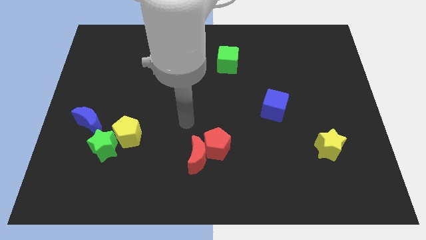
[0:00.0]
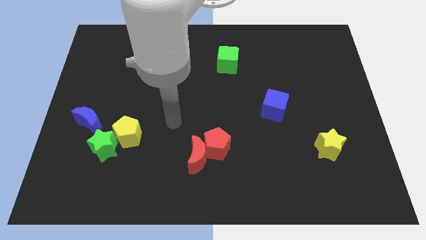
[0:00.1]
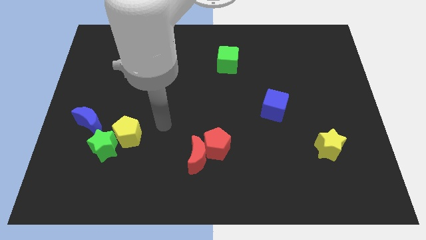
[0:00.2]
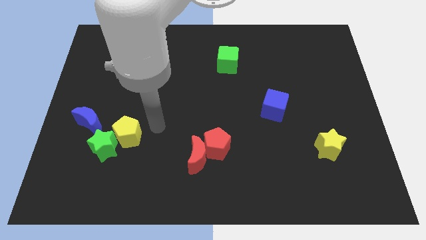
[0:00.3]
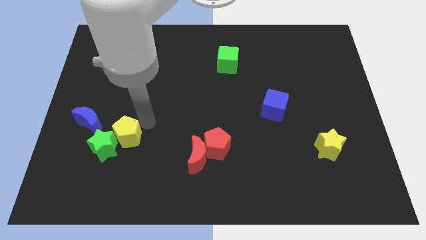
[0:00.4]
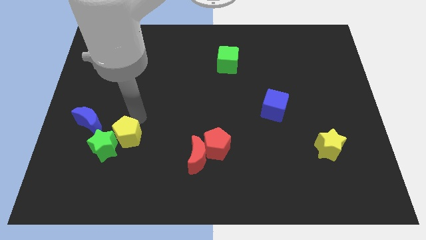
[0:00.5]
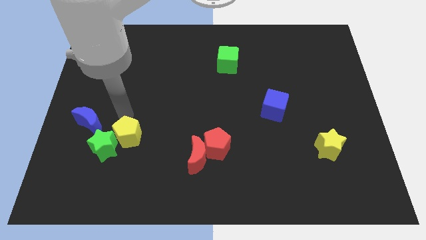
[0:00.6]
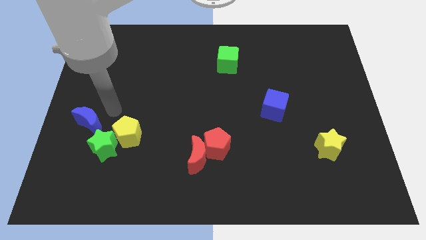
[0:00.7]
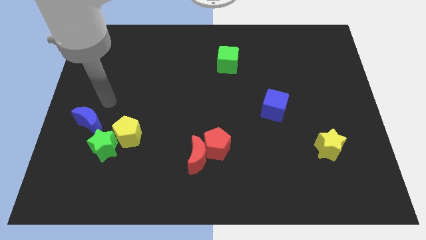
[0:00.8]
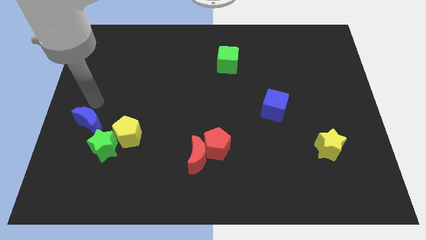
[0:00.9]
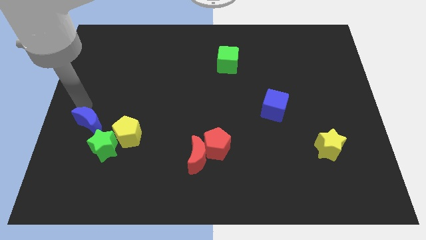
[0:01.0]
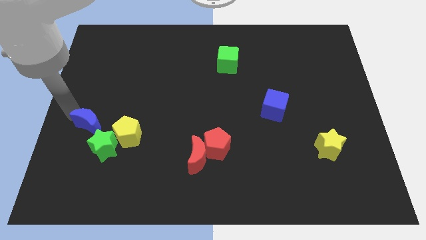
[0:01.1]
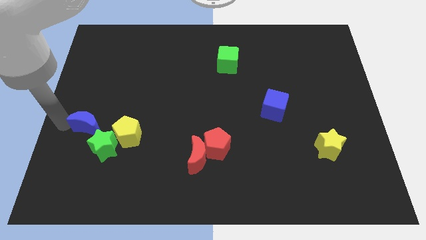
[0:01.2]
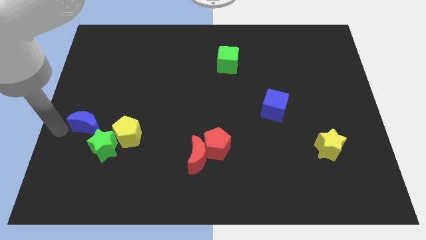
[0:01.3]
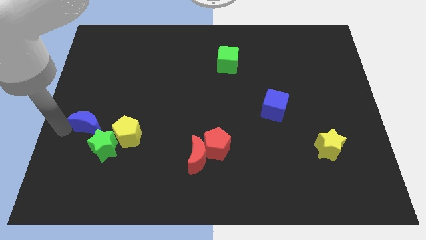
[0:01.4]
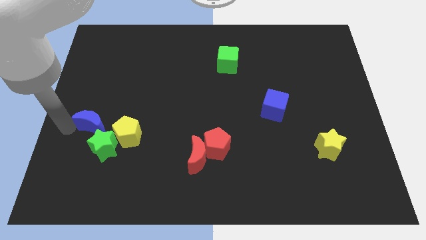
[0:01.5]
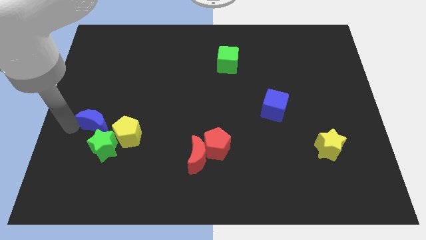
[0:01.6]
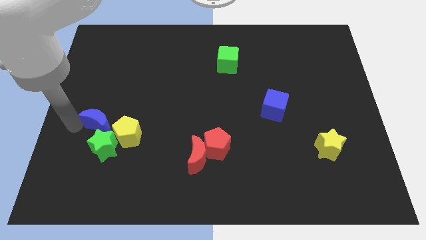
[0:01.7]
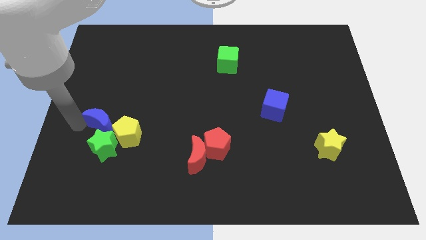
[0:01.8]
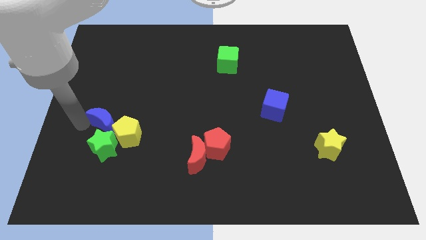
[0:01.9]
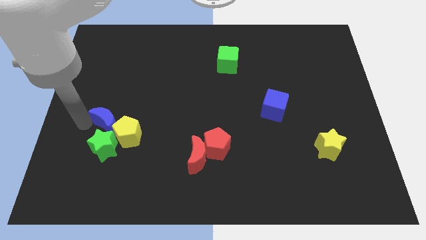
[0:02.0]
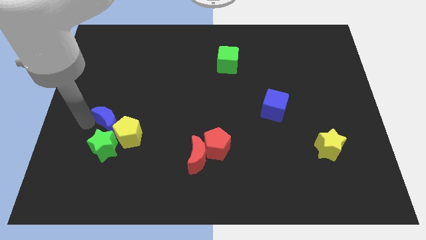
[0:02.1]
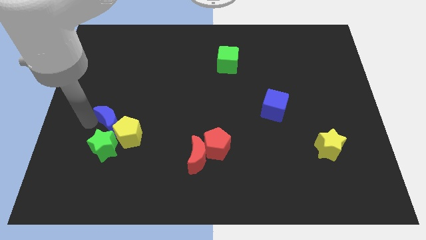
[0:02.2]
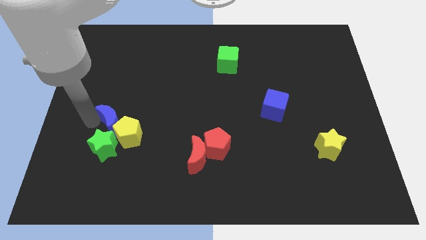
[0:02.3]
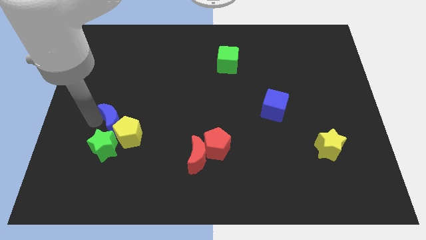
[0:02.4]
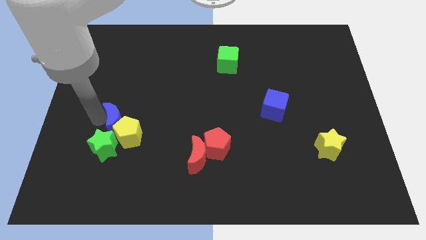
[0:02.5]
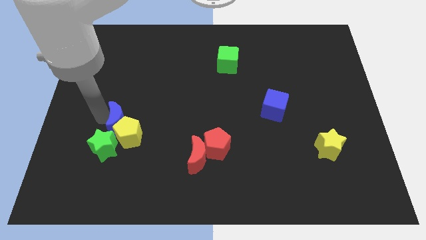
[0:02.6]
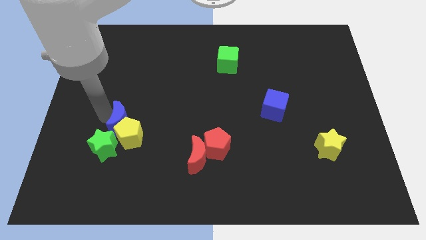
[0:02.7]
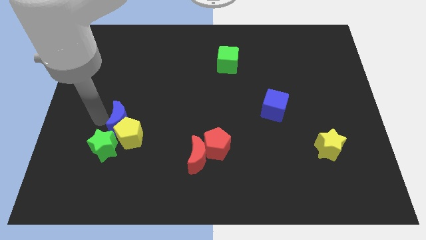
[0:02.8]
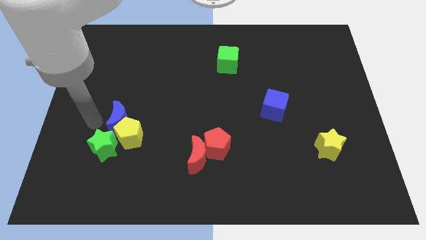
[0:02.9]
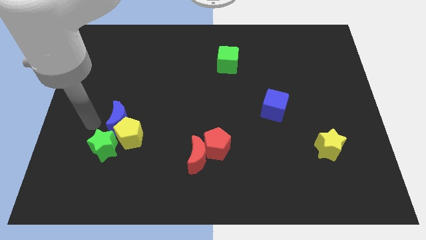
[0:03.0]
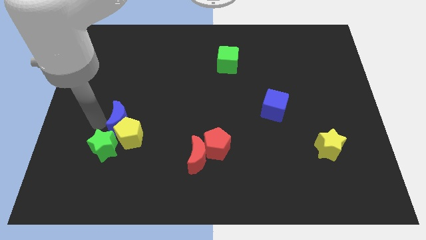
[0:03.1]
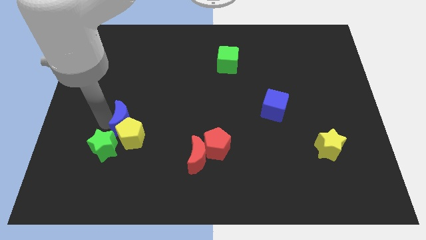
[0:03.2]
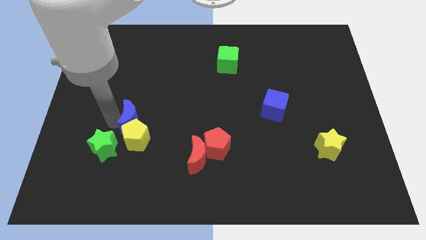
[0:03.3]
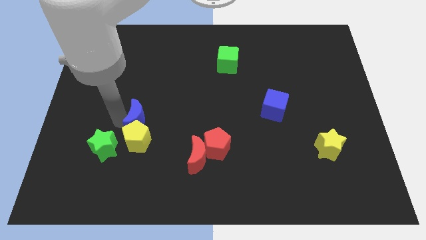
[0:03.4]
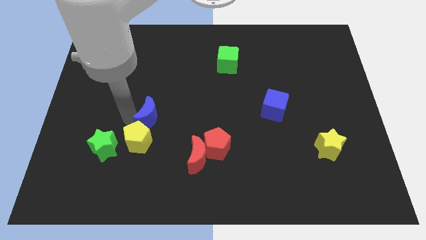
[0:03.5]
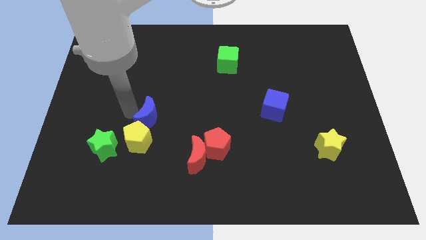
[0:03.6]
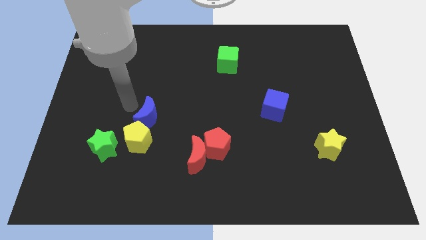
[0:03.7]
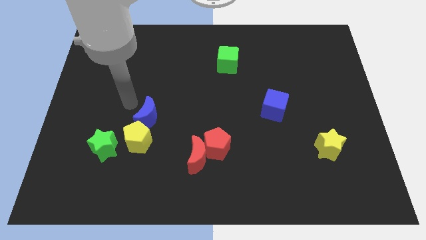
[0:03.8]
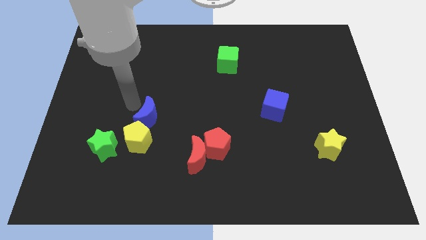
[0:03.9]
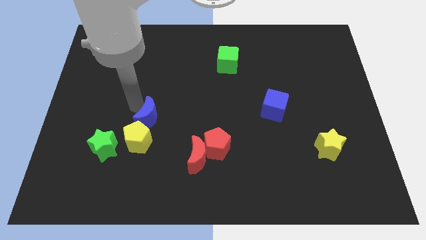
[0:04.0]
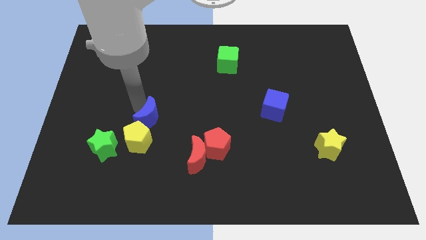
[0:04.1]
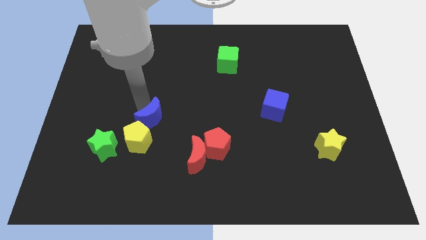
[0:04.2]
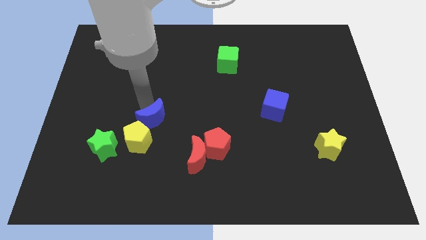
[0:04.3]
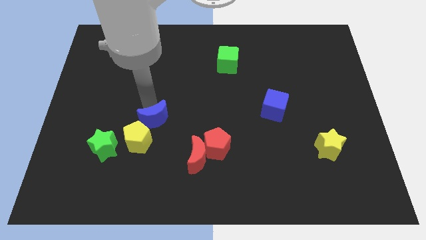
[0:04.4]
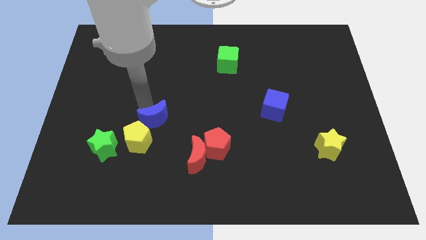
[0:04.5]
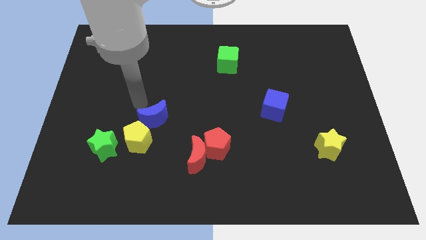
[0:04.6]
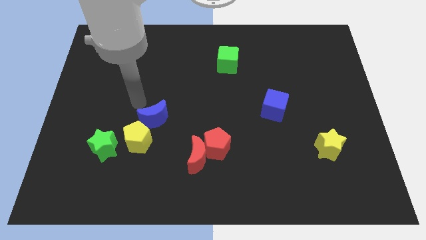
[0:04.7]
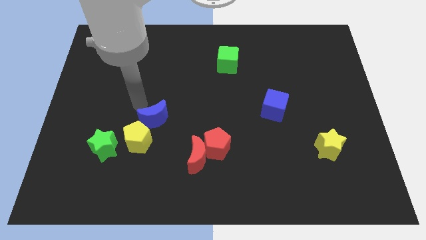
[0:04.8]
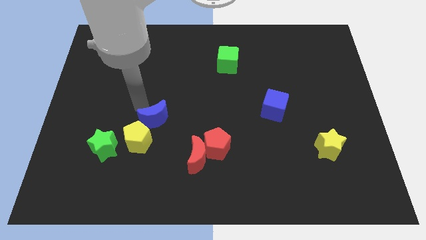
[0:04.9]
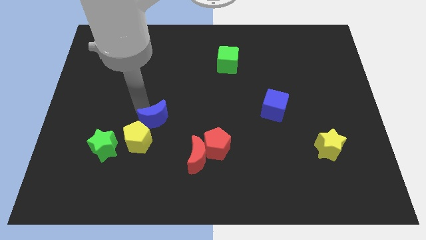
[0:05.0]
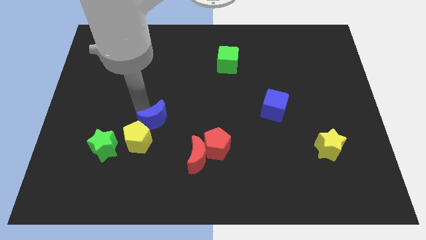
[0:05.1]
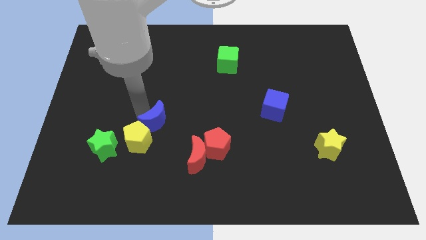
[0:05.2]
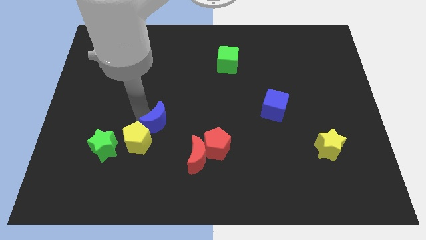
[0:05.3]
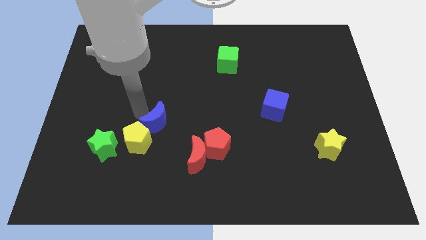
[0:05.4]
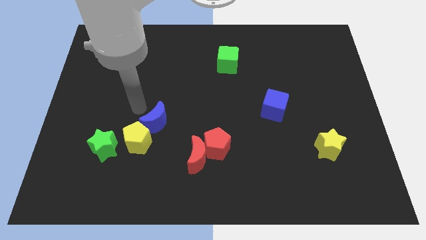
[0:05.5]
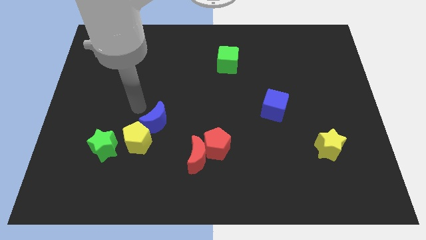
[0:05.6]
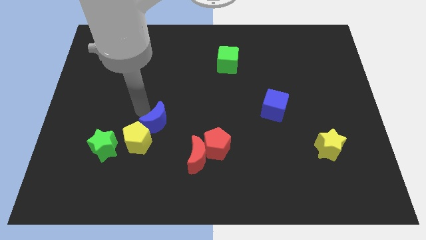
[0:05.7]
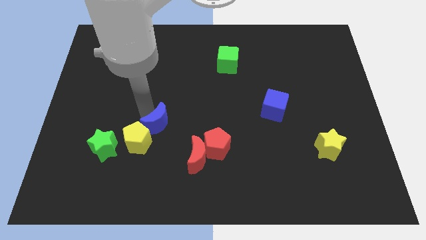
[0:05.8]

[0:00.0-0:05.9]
put the blue moon to the top left side of the red moon

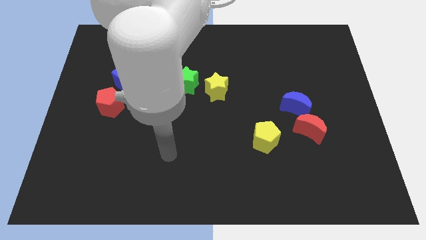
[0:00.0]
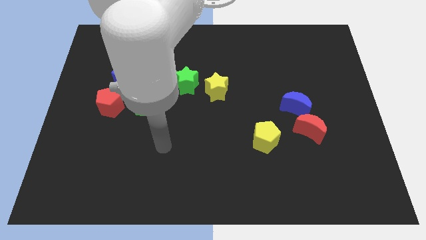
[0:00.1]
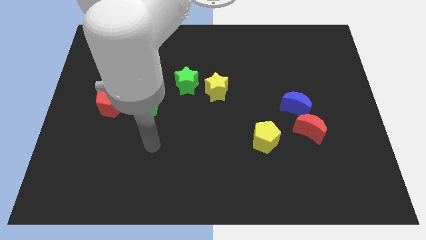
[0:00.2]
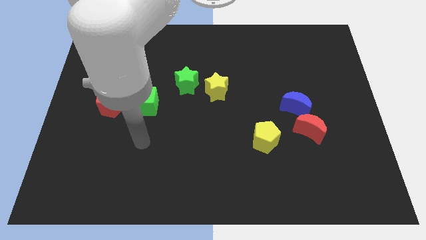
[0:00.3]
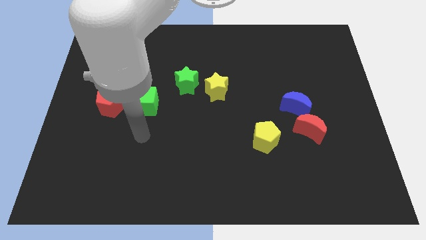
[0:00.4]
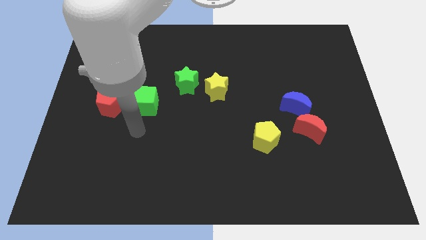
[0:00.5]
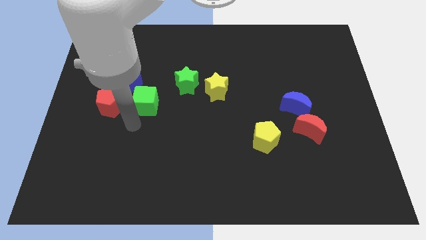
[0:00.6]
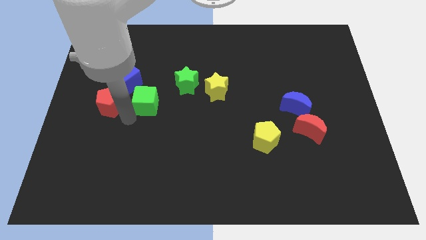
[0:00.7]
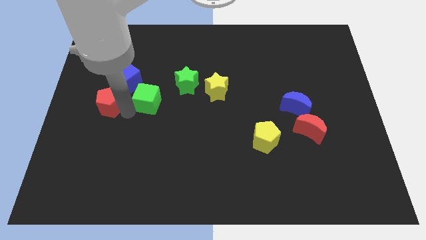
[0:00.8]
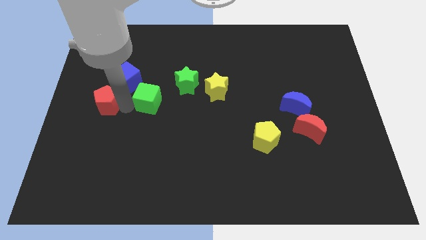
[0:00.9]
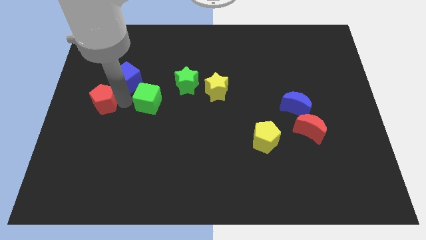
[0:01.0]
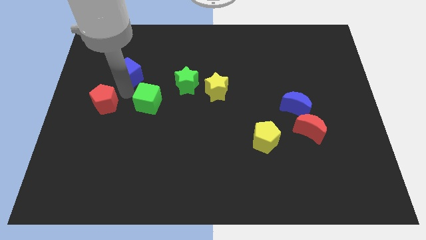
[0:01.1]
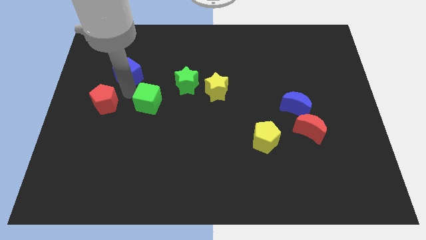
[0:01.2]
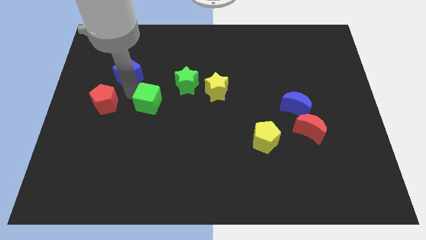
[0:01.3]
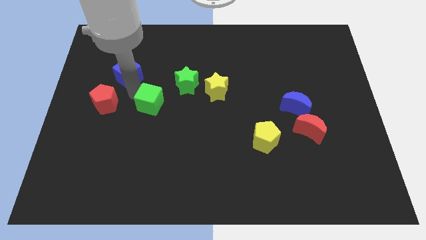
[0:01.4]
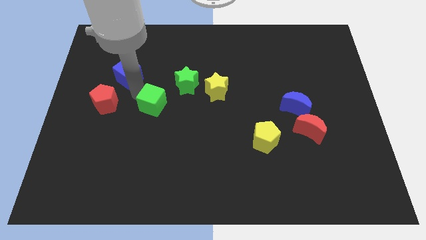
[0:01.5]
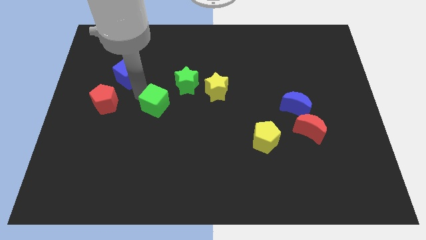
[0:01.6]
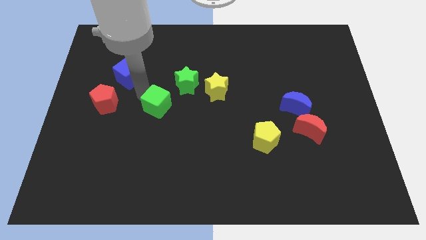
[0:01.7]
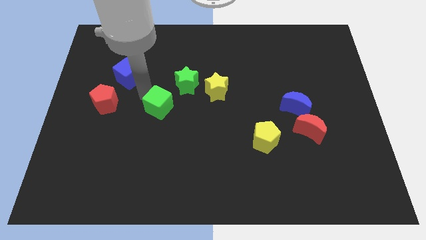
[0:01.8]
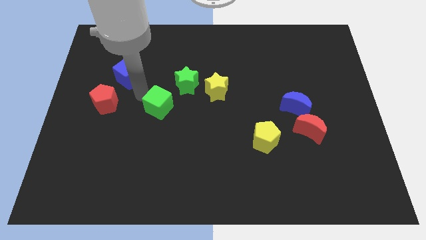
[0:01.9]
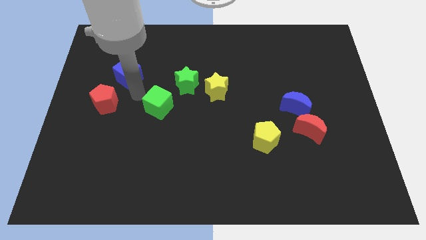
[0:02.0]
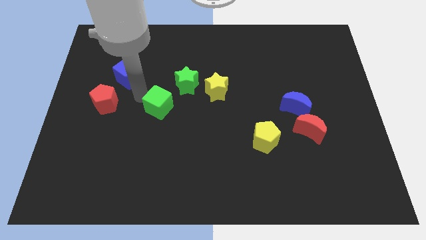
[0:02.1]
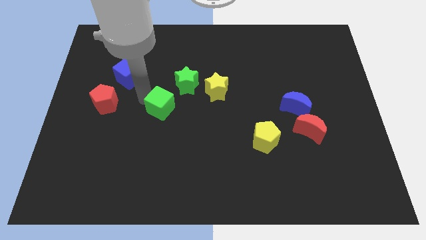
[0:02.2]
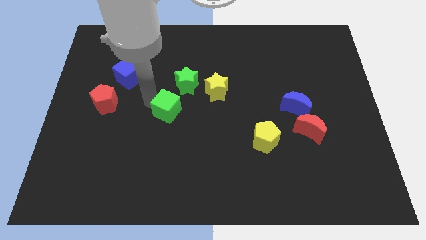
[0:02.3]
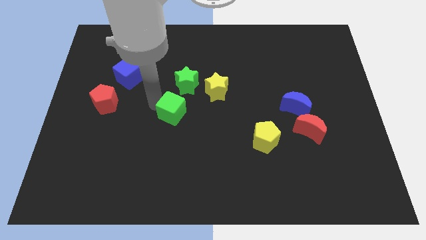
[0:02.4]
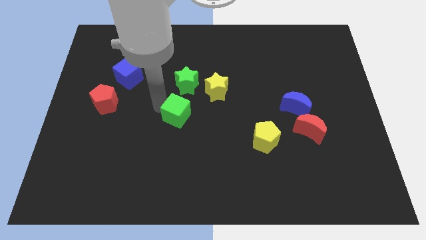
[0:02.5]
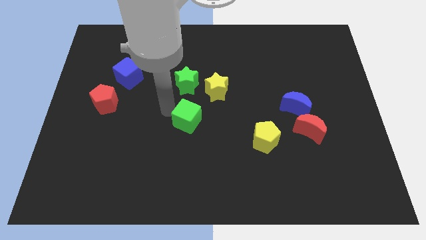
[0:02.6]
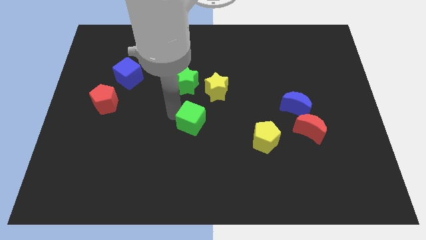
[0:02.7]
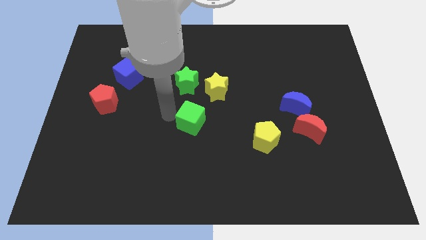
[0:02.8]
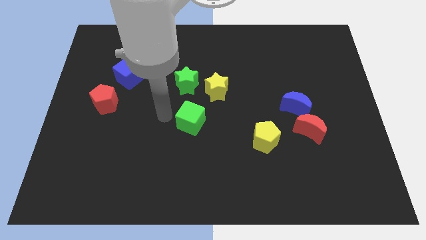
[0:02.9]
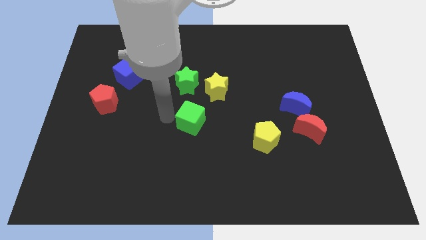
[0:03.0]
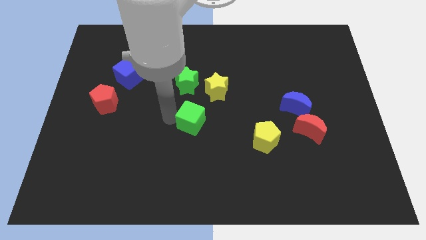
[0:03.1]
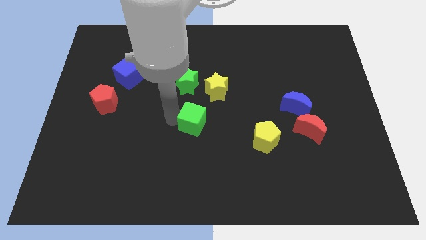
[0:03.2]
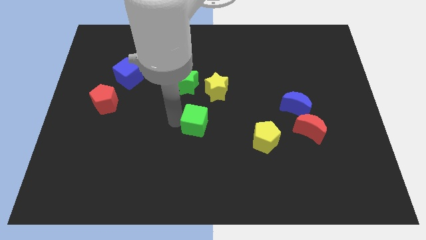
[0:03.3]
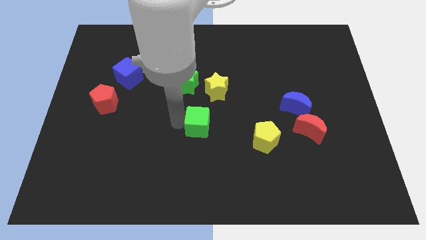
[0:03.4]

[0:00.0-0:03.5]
put the green cube to the bottom side of the yellow star
